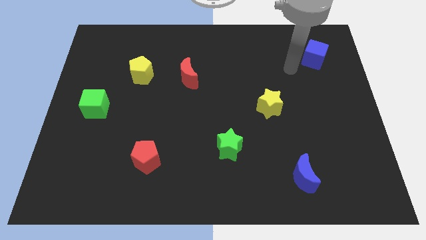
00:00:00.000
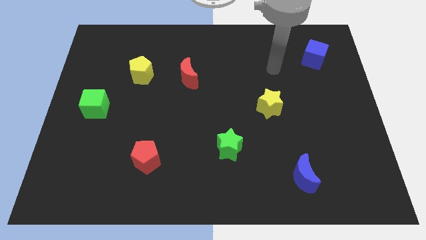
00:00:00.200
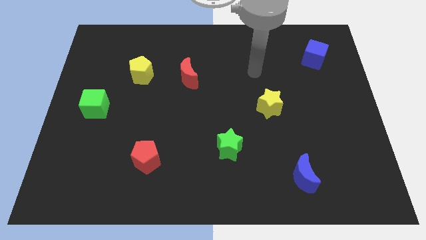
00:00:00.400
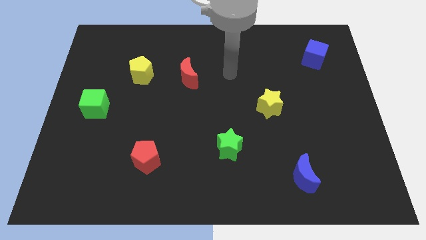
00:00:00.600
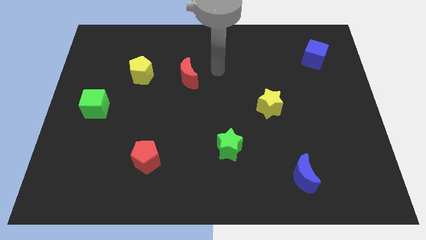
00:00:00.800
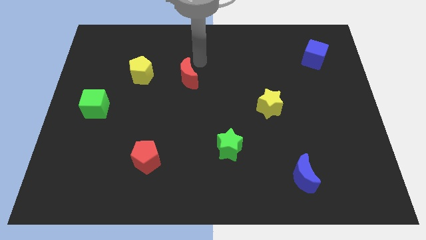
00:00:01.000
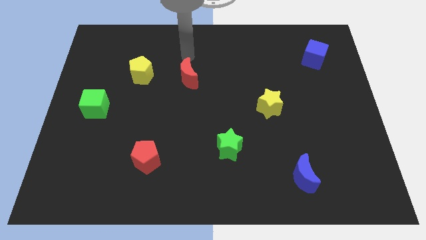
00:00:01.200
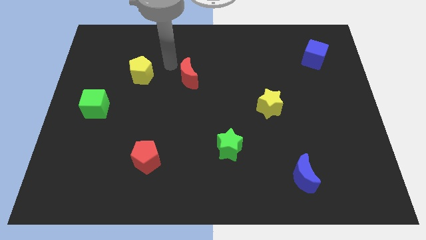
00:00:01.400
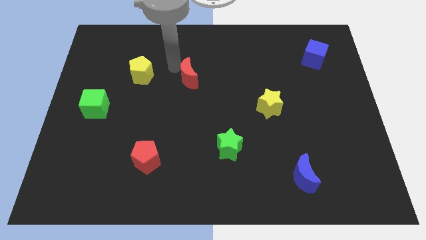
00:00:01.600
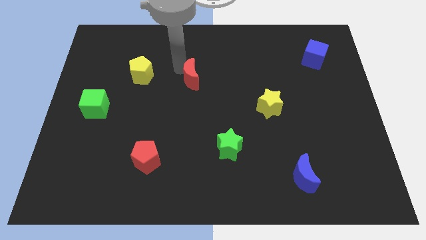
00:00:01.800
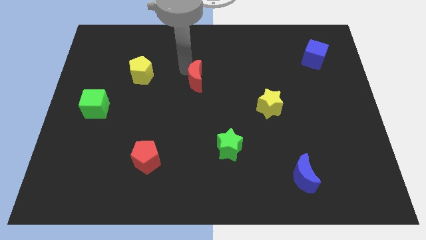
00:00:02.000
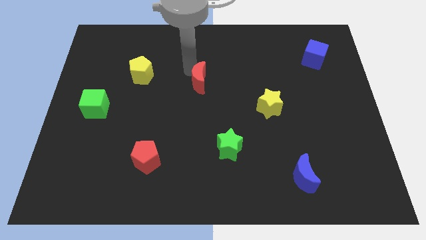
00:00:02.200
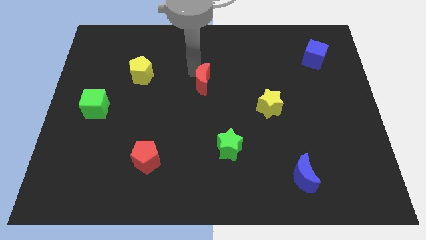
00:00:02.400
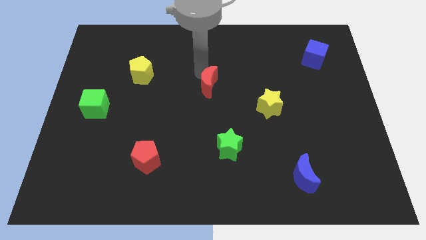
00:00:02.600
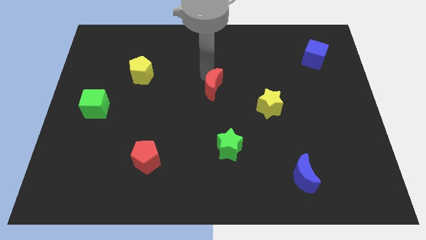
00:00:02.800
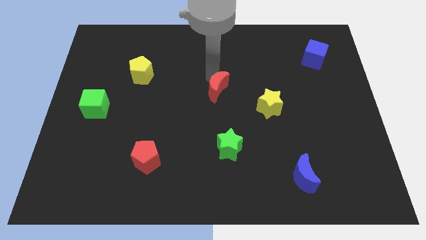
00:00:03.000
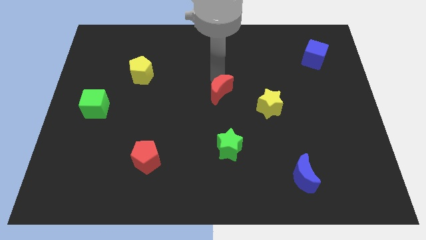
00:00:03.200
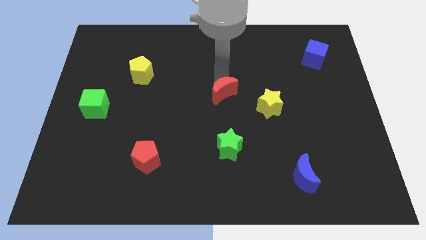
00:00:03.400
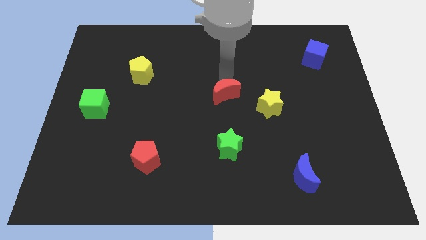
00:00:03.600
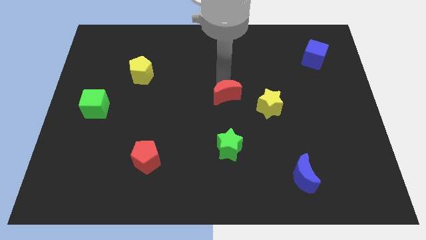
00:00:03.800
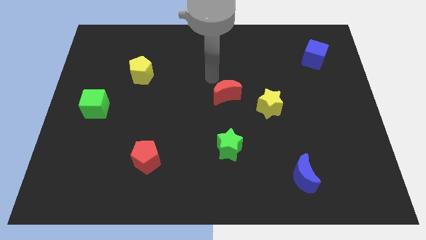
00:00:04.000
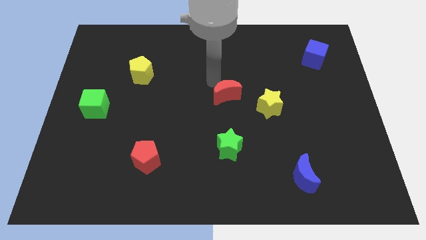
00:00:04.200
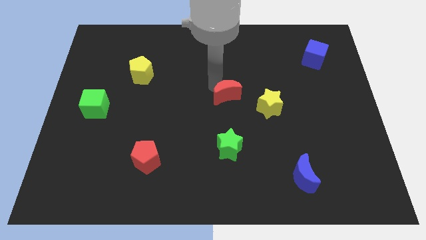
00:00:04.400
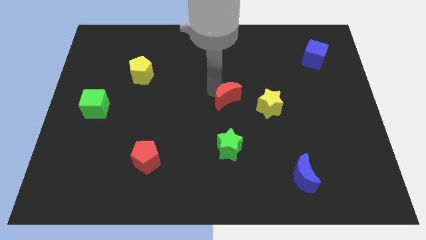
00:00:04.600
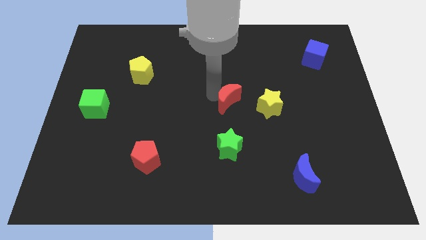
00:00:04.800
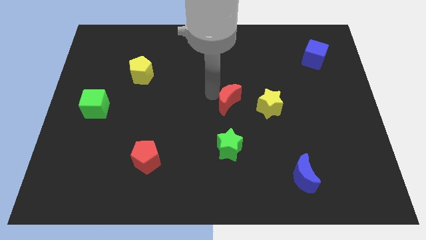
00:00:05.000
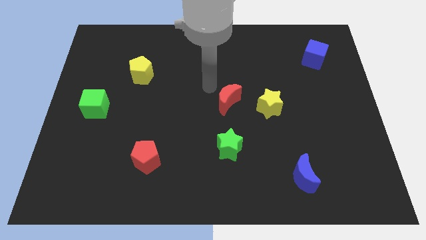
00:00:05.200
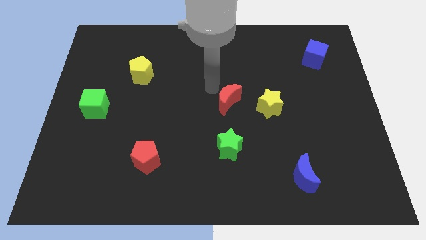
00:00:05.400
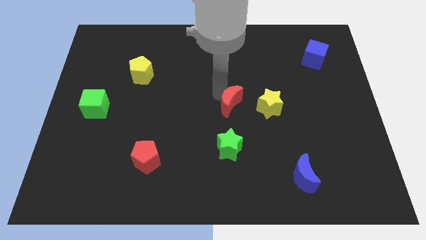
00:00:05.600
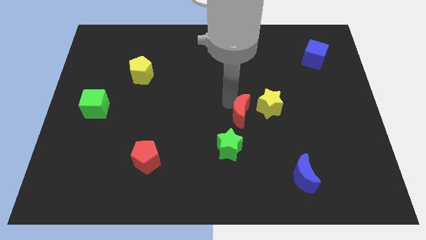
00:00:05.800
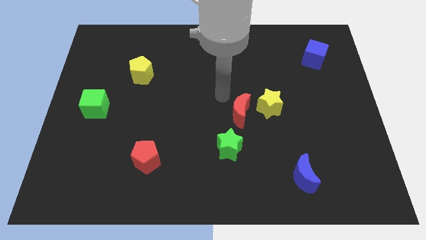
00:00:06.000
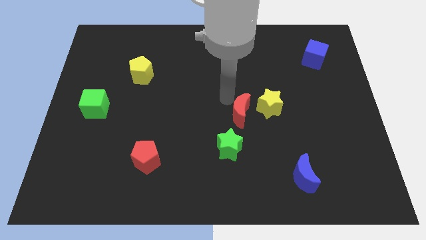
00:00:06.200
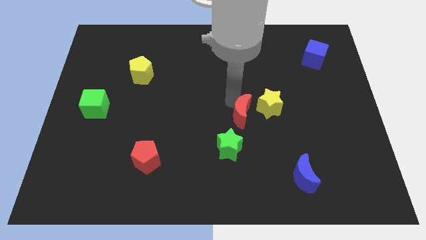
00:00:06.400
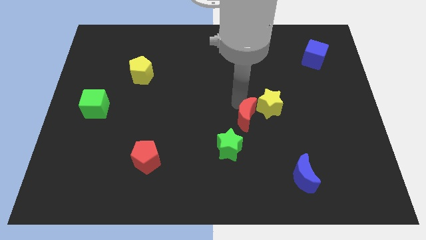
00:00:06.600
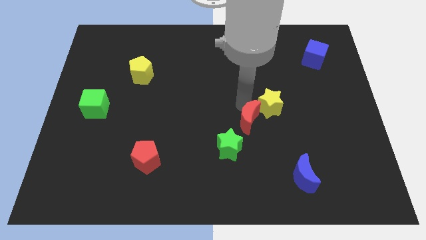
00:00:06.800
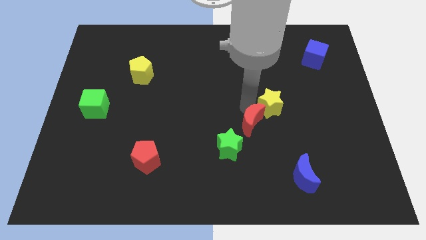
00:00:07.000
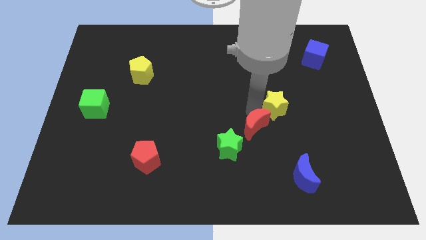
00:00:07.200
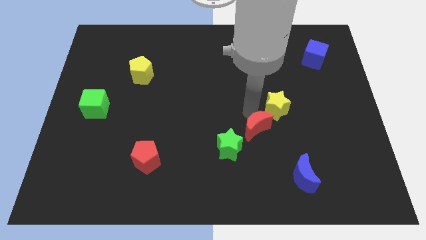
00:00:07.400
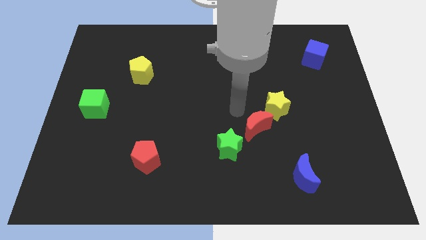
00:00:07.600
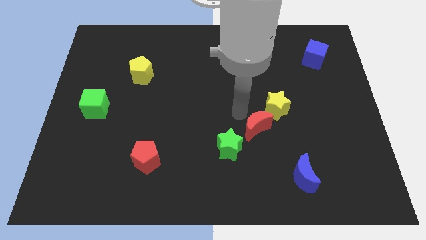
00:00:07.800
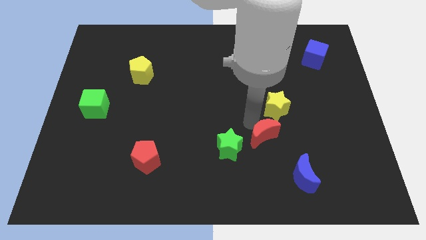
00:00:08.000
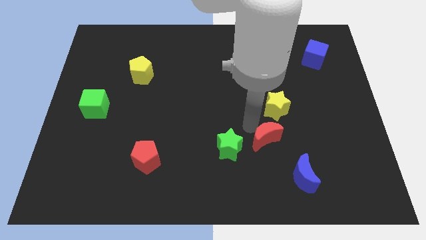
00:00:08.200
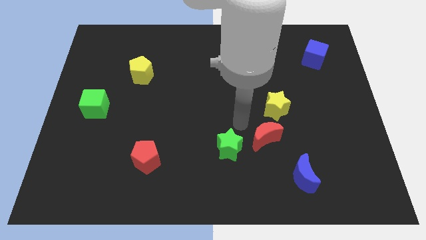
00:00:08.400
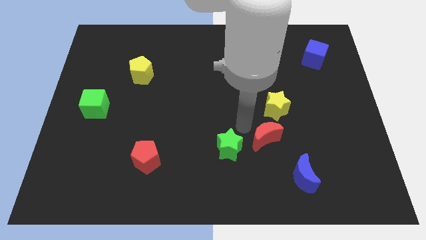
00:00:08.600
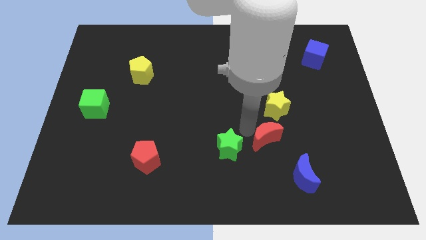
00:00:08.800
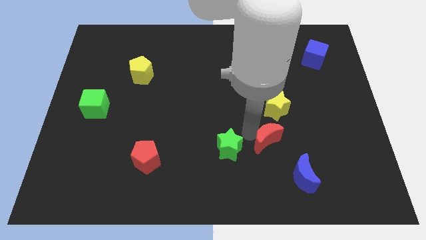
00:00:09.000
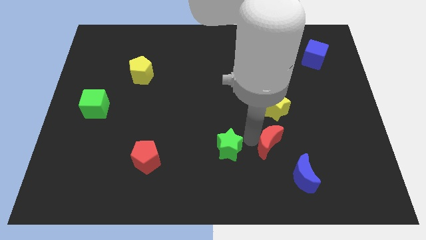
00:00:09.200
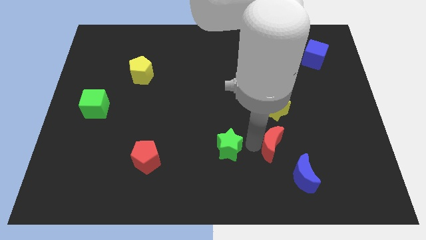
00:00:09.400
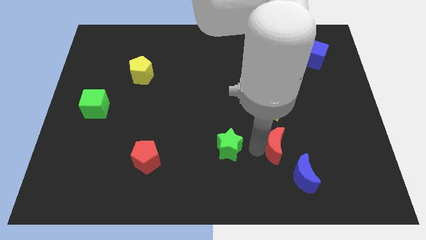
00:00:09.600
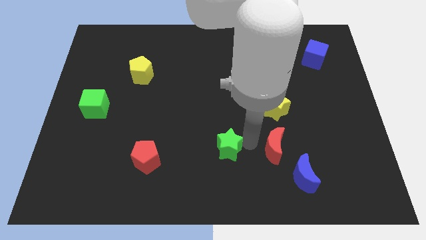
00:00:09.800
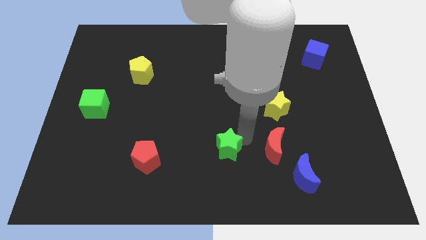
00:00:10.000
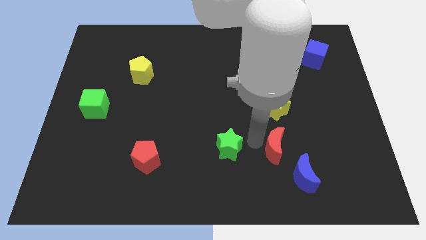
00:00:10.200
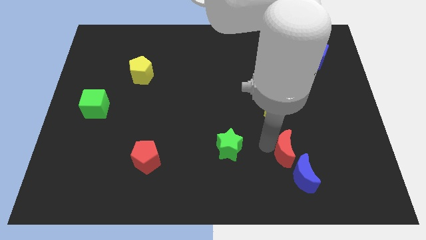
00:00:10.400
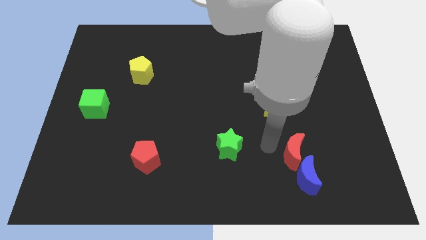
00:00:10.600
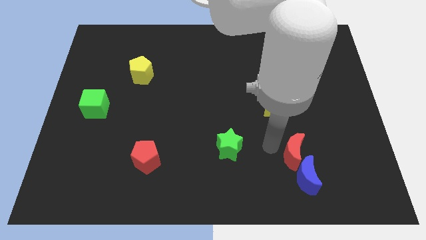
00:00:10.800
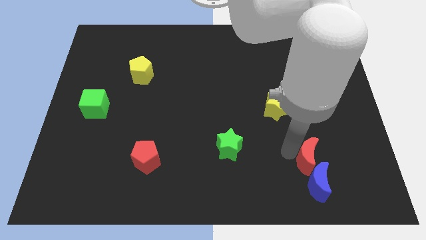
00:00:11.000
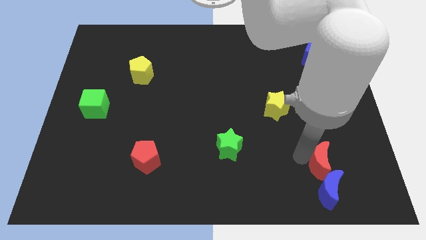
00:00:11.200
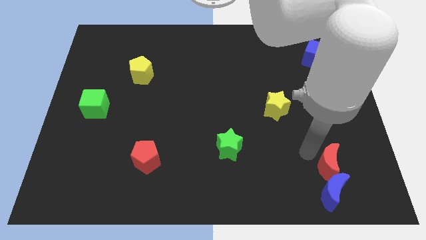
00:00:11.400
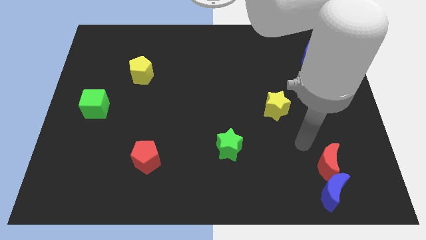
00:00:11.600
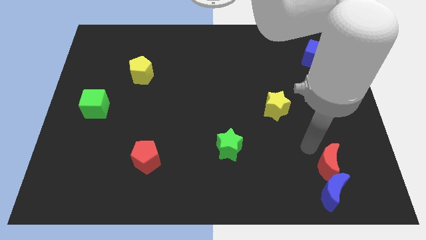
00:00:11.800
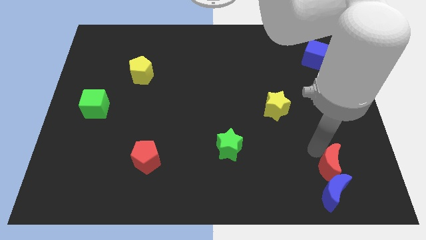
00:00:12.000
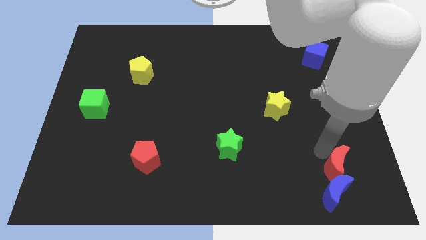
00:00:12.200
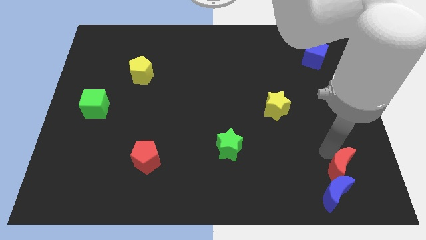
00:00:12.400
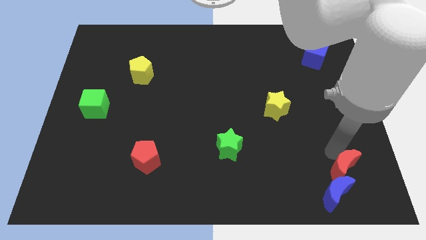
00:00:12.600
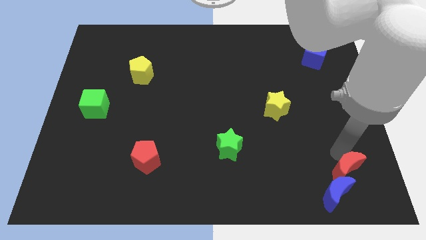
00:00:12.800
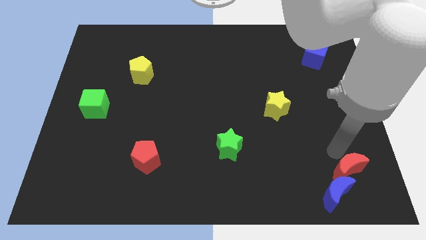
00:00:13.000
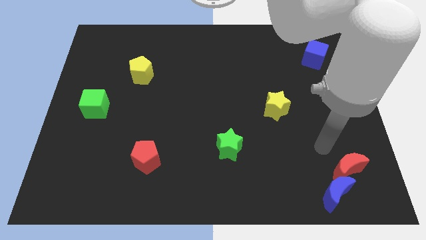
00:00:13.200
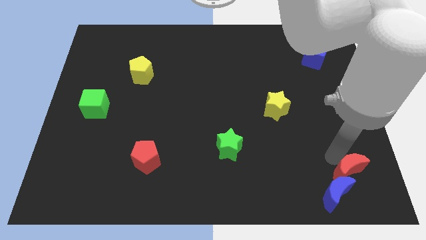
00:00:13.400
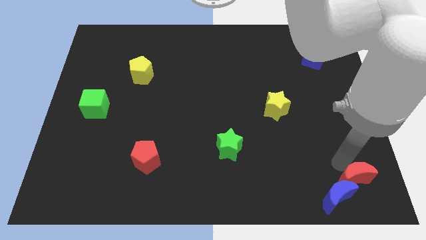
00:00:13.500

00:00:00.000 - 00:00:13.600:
move the red moon to the lower right corner
